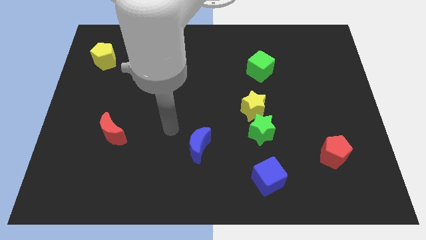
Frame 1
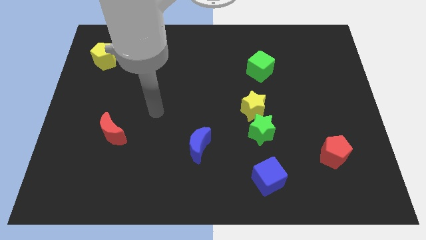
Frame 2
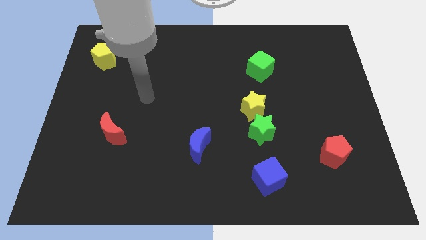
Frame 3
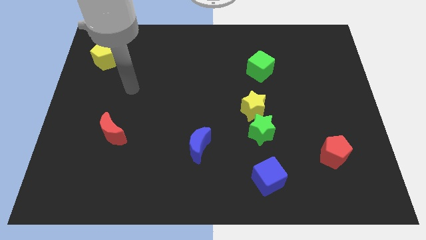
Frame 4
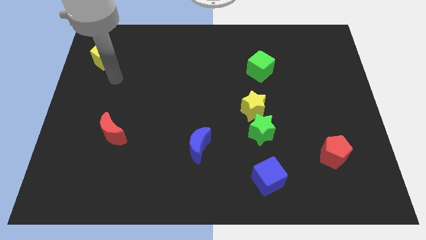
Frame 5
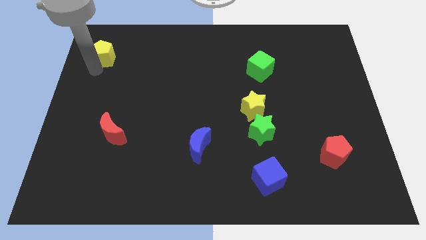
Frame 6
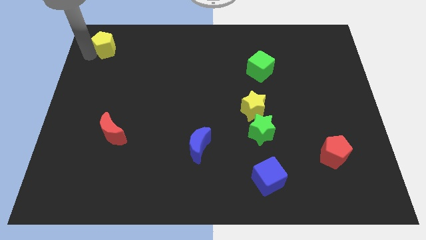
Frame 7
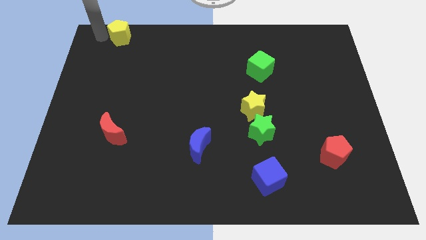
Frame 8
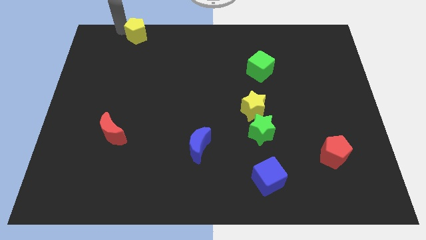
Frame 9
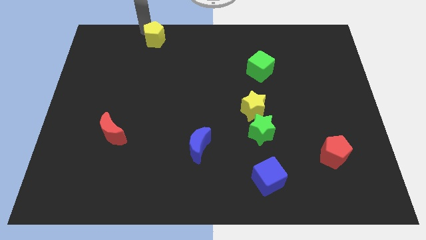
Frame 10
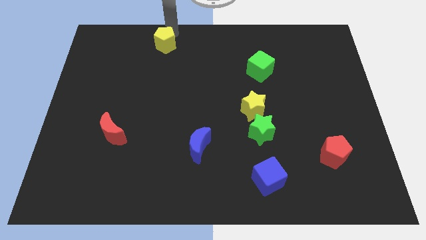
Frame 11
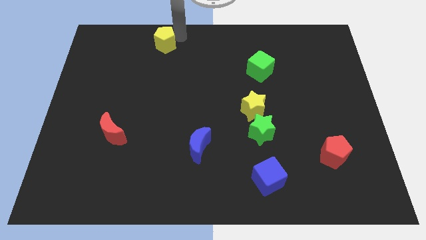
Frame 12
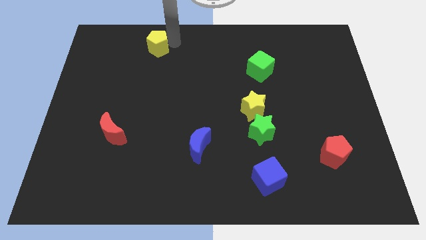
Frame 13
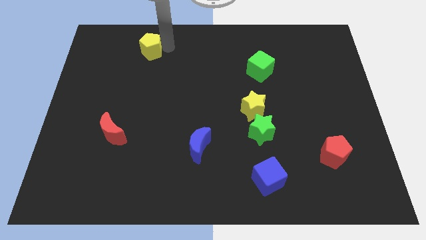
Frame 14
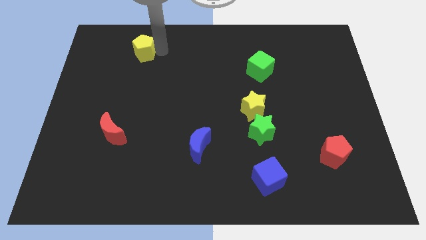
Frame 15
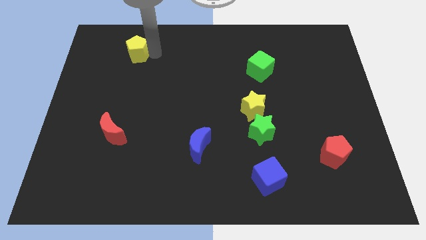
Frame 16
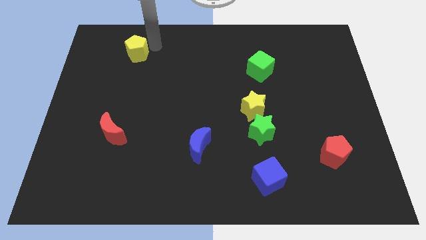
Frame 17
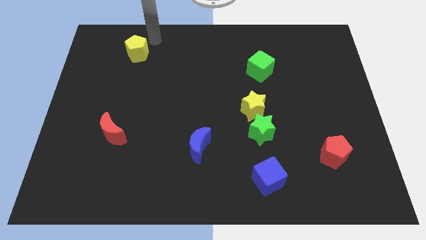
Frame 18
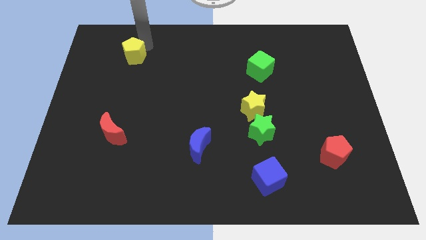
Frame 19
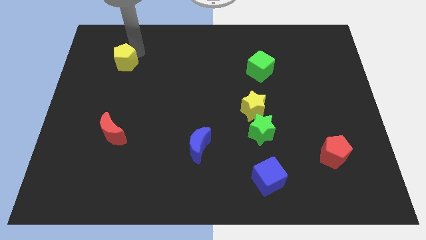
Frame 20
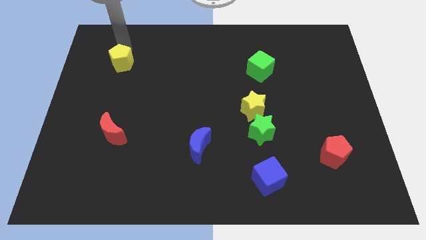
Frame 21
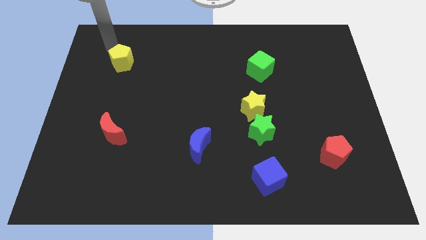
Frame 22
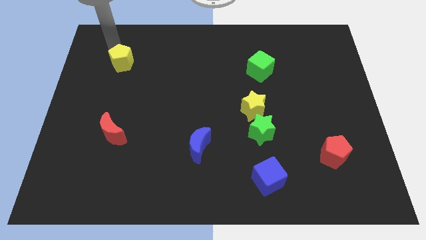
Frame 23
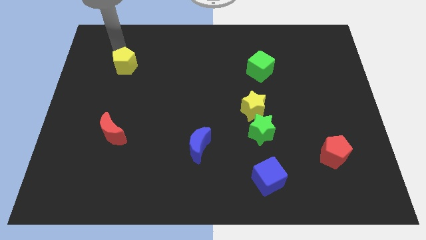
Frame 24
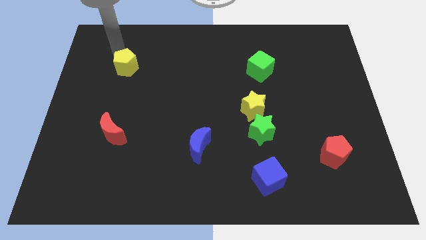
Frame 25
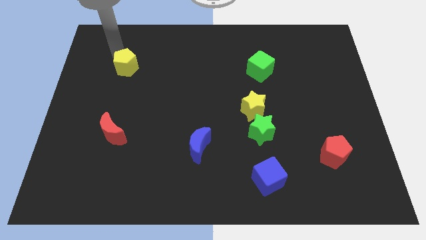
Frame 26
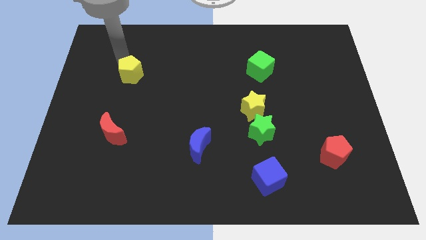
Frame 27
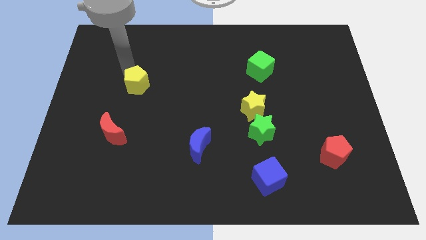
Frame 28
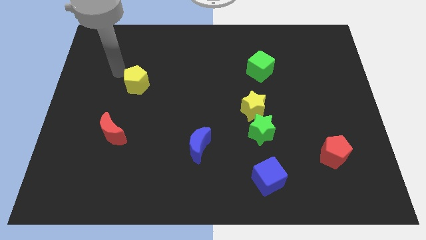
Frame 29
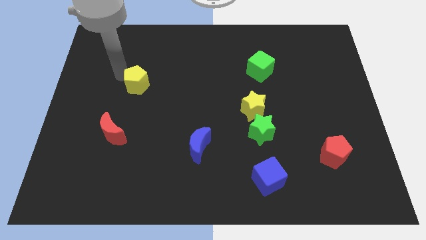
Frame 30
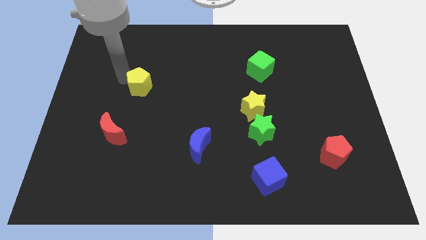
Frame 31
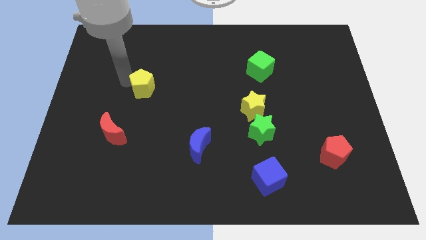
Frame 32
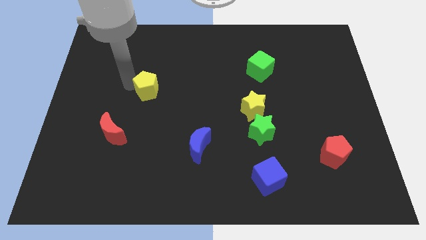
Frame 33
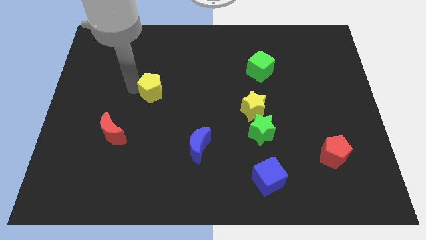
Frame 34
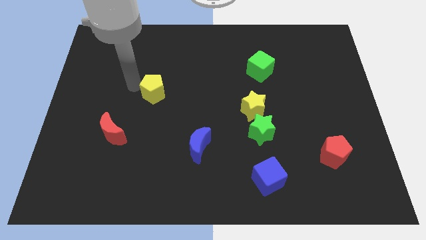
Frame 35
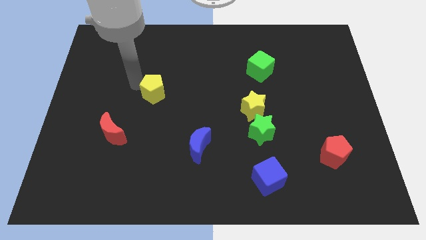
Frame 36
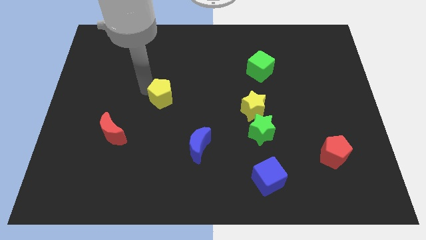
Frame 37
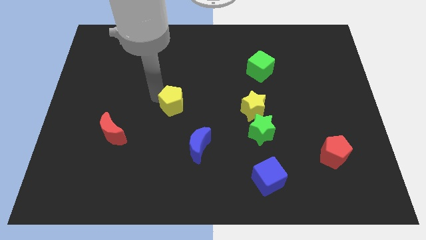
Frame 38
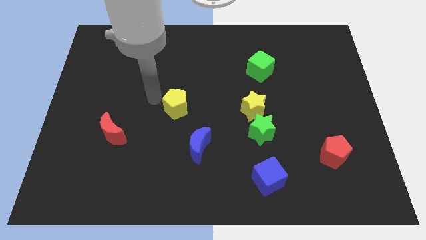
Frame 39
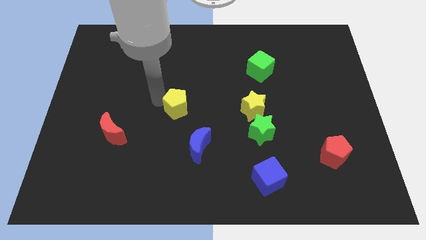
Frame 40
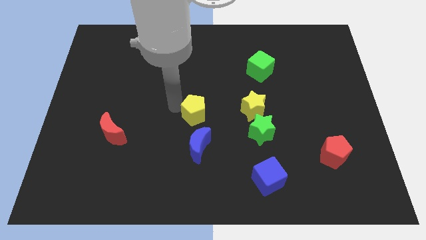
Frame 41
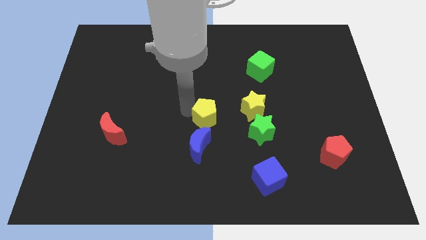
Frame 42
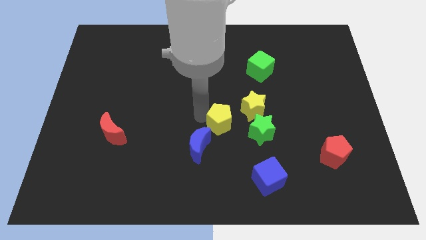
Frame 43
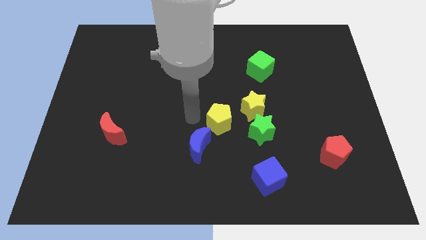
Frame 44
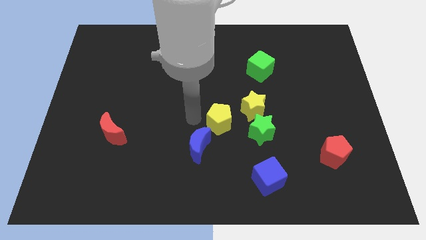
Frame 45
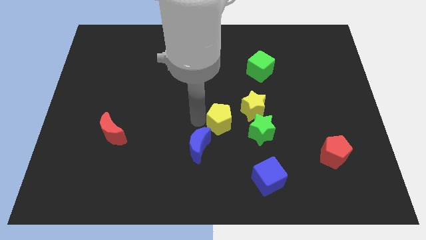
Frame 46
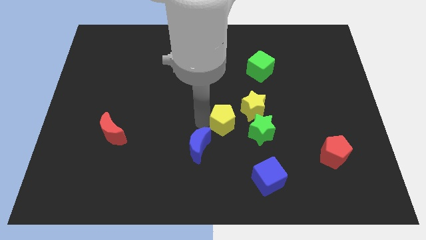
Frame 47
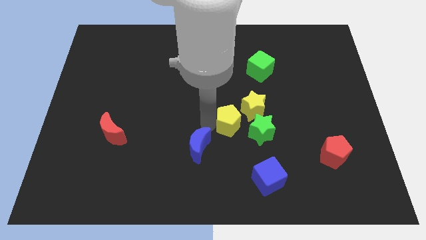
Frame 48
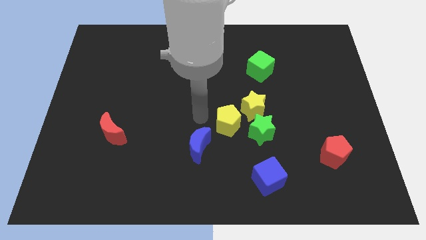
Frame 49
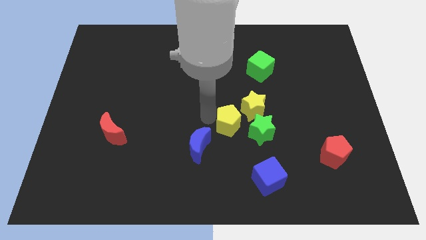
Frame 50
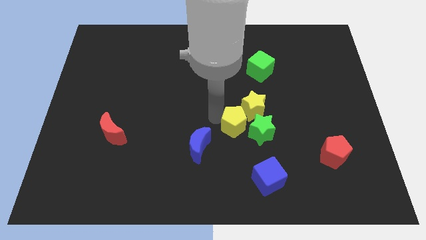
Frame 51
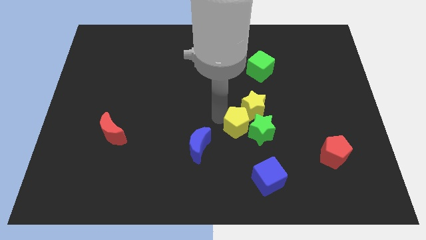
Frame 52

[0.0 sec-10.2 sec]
put the yellow pentagon close to the green star

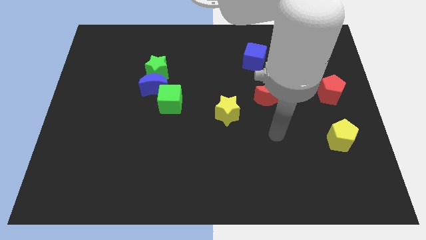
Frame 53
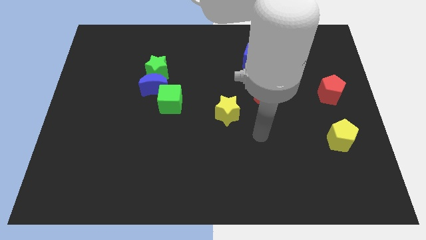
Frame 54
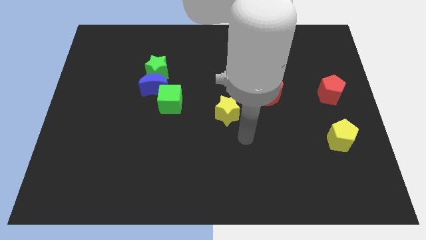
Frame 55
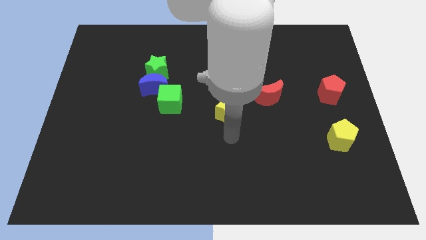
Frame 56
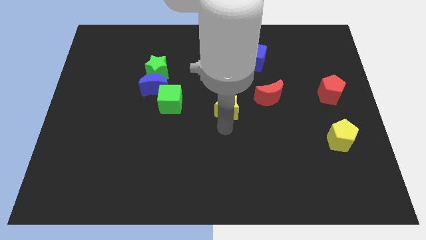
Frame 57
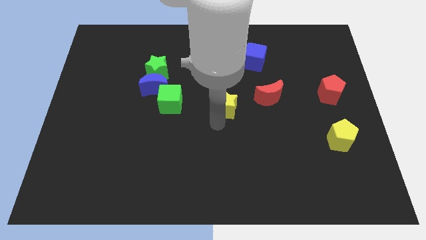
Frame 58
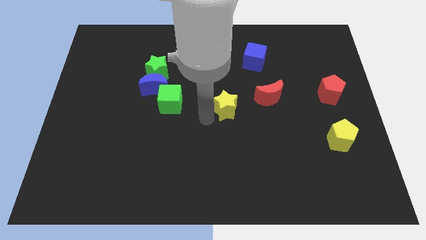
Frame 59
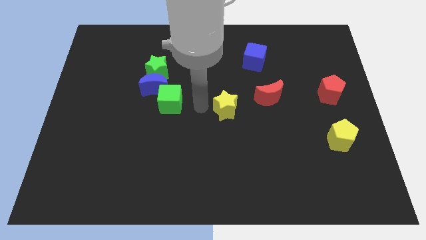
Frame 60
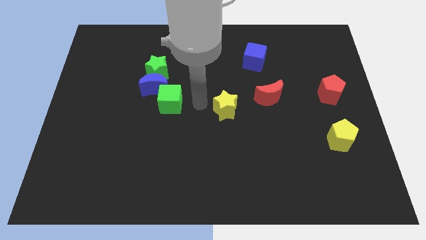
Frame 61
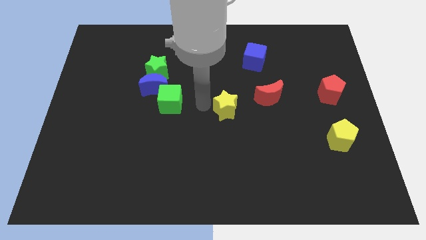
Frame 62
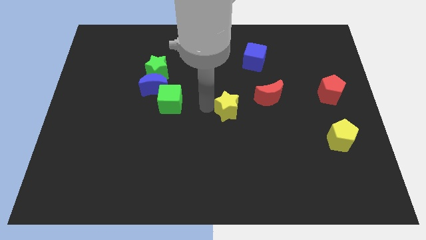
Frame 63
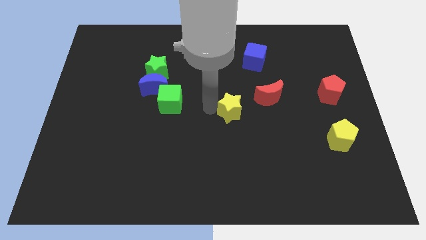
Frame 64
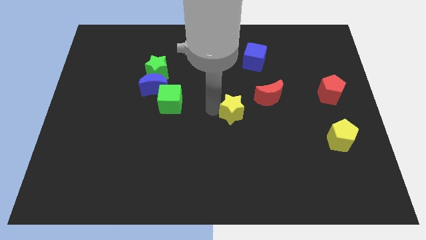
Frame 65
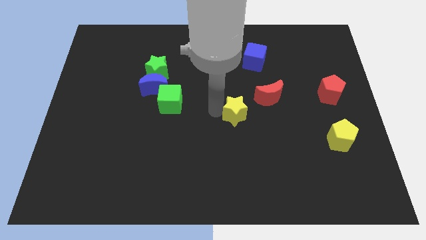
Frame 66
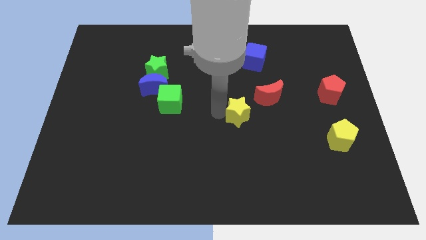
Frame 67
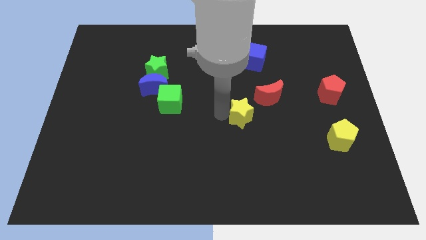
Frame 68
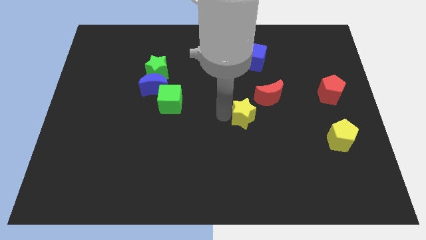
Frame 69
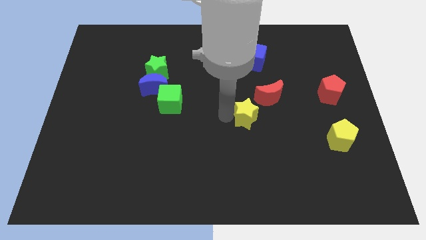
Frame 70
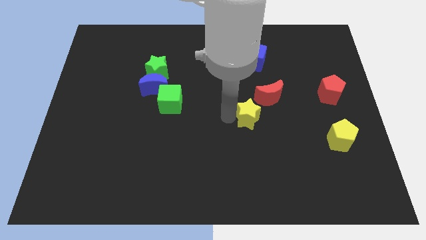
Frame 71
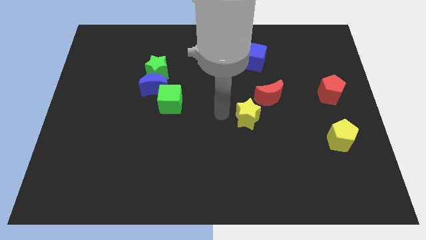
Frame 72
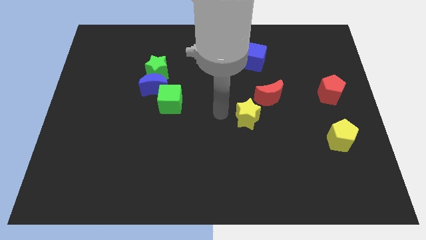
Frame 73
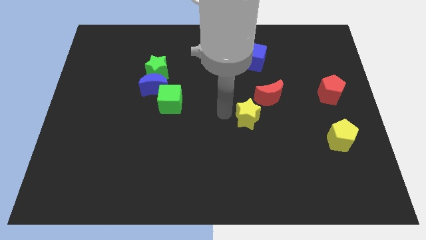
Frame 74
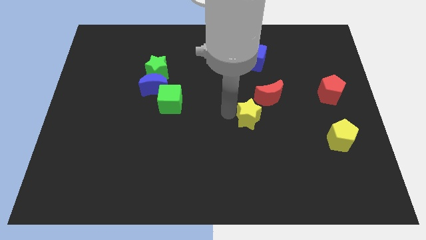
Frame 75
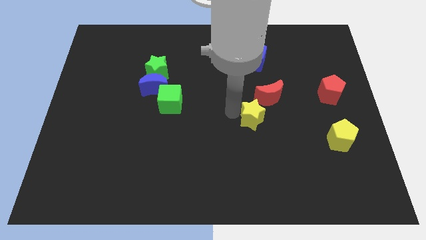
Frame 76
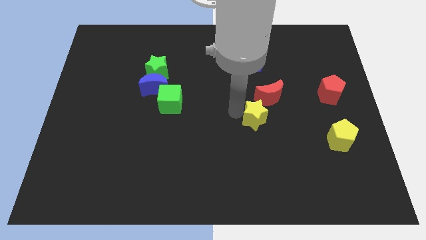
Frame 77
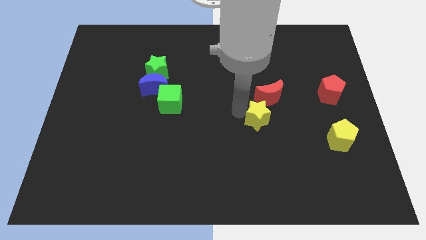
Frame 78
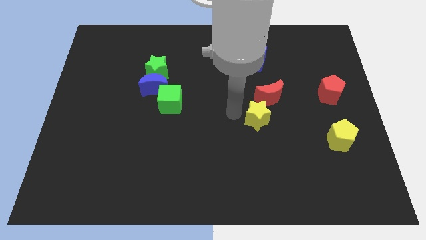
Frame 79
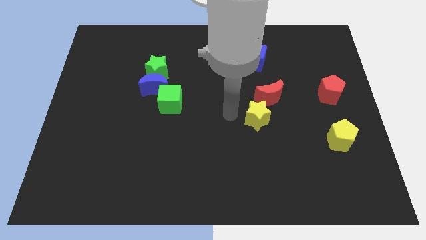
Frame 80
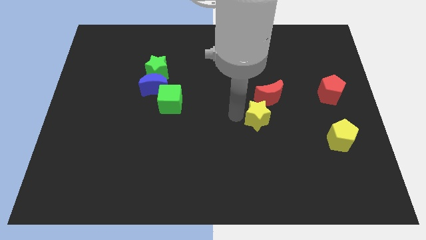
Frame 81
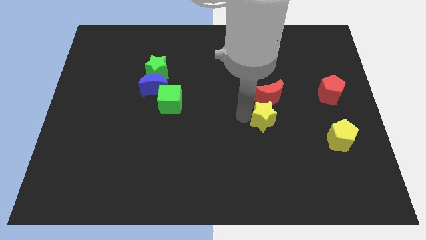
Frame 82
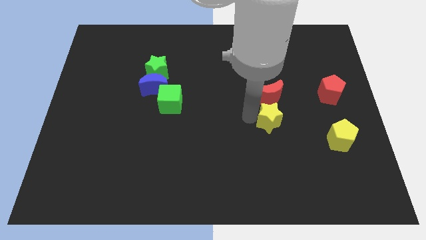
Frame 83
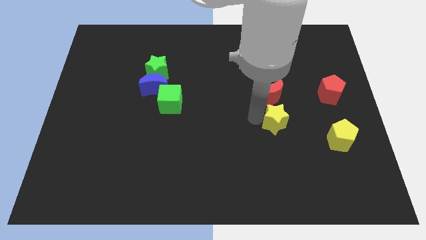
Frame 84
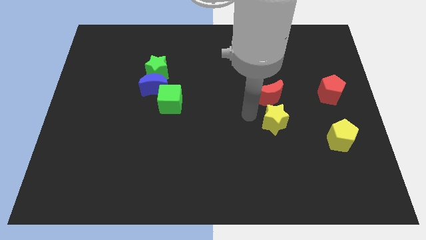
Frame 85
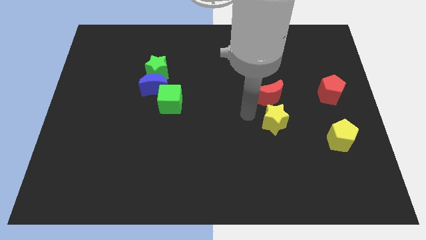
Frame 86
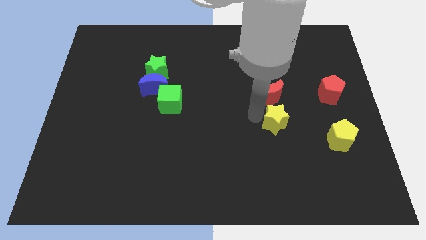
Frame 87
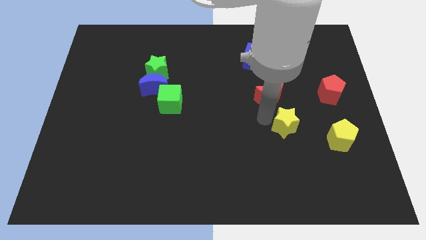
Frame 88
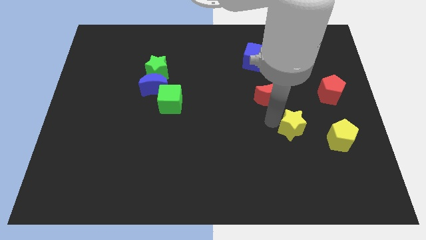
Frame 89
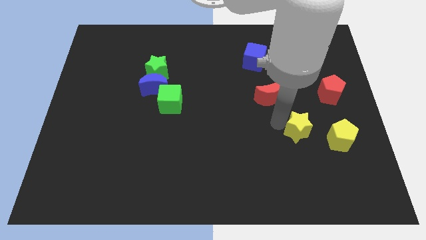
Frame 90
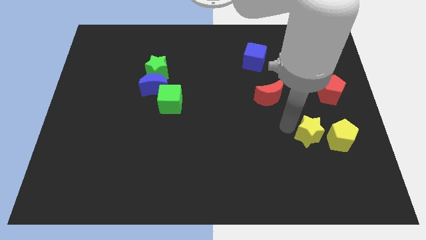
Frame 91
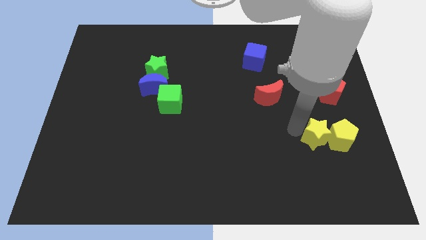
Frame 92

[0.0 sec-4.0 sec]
slide the yellow star to the yellow pentagon
